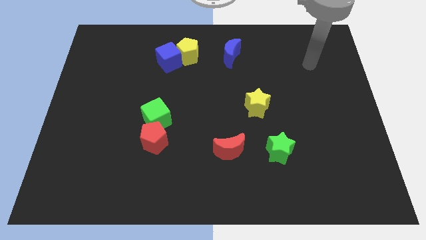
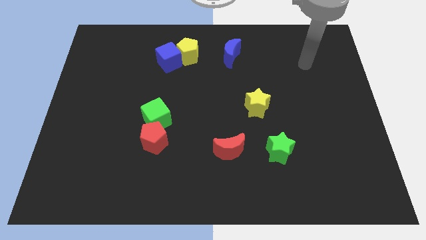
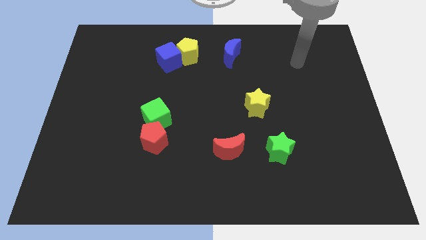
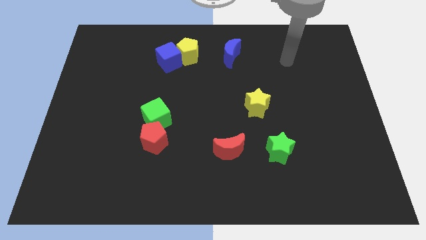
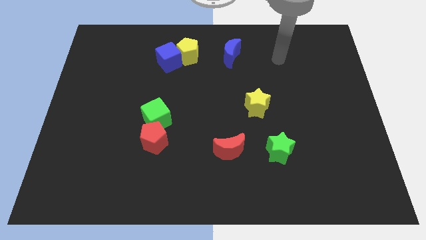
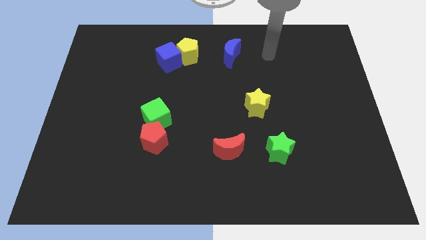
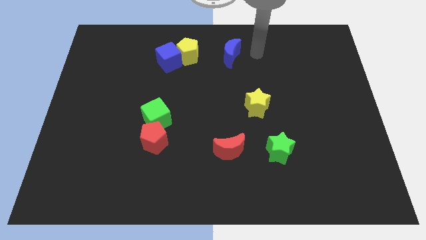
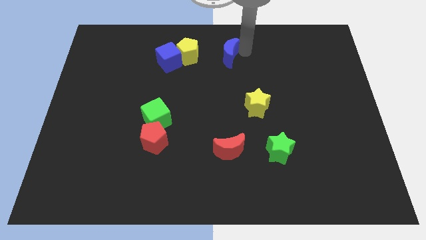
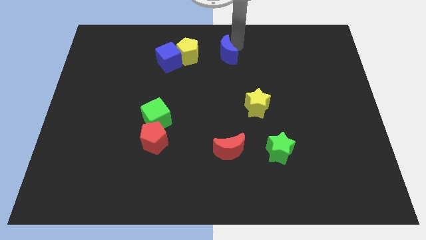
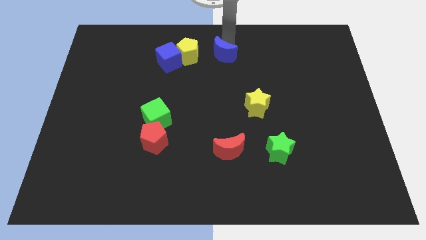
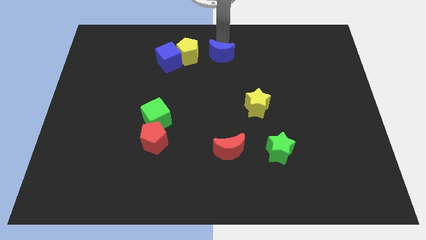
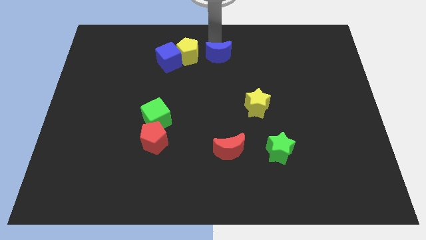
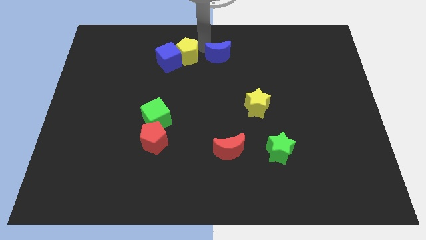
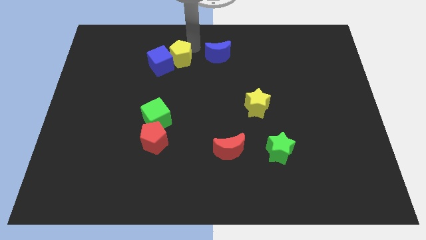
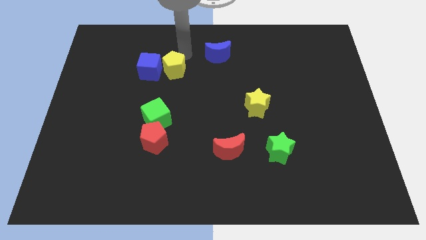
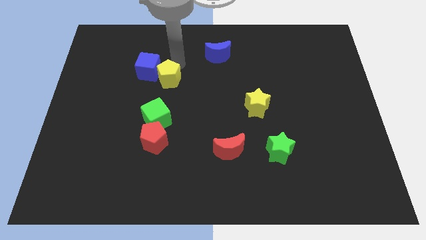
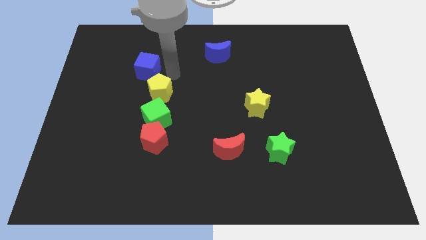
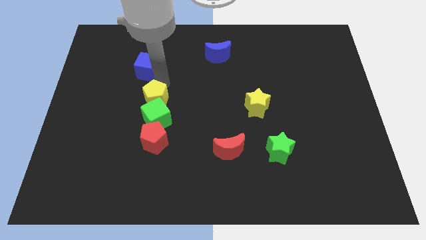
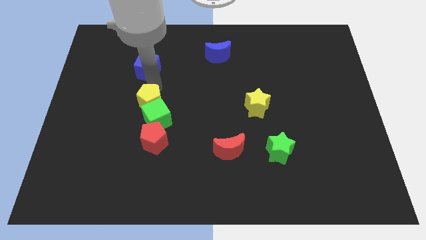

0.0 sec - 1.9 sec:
move the blue cube away from the yellow pentagon

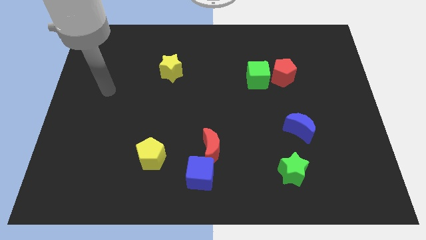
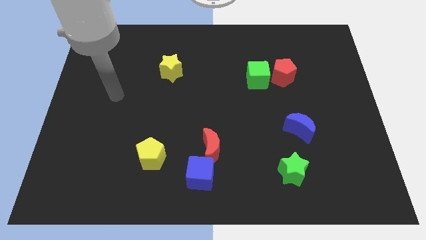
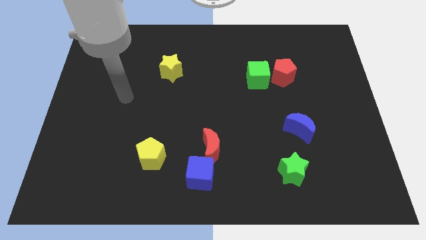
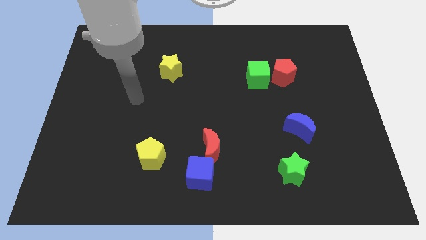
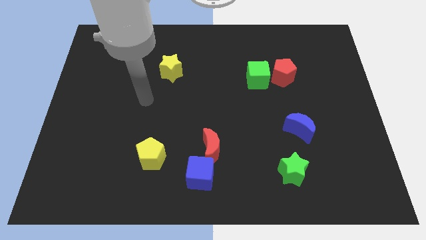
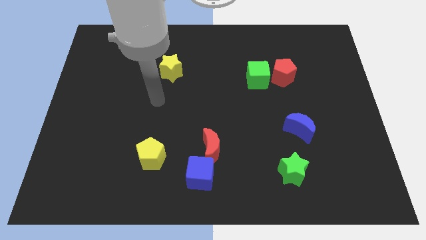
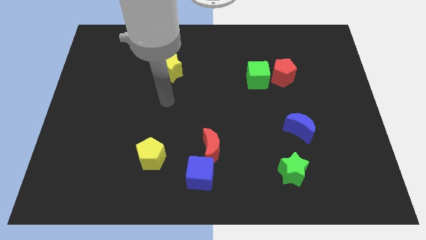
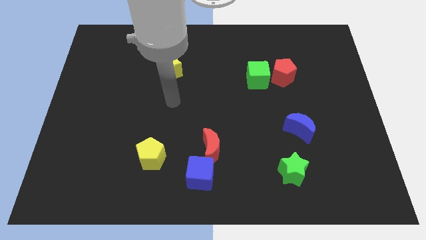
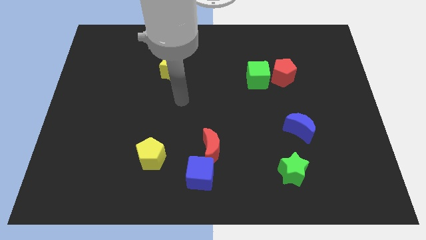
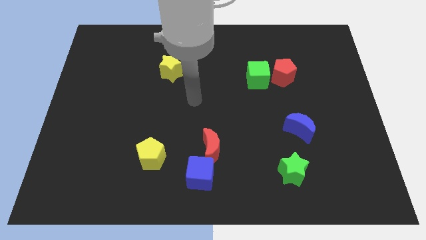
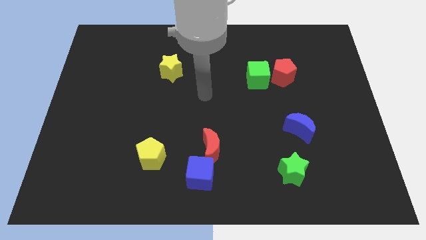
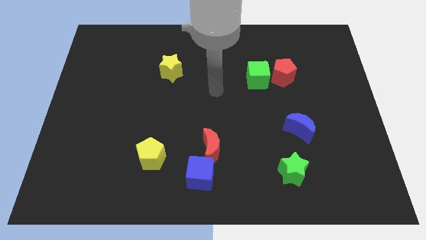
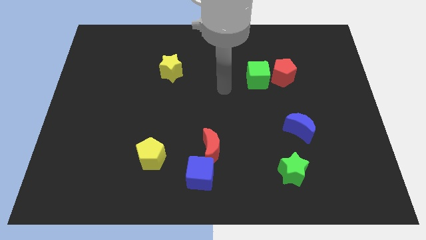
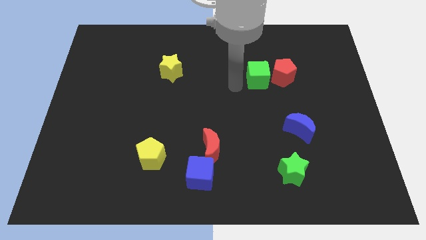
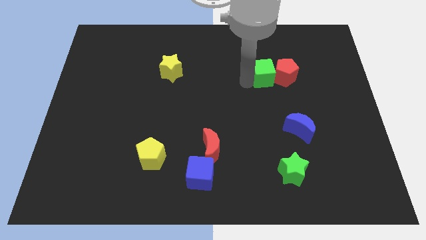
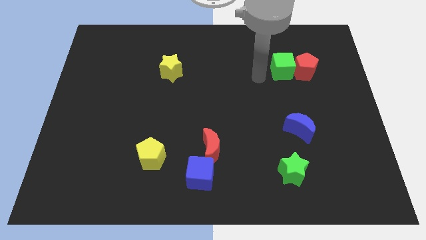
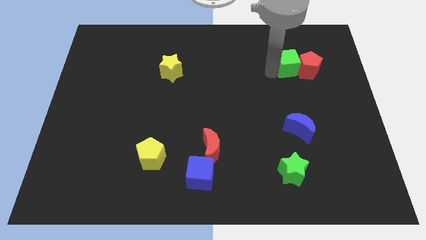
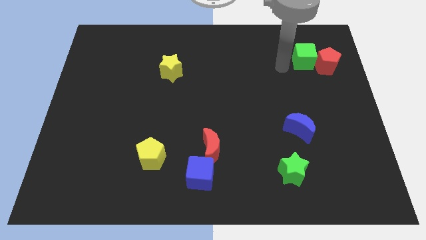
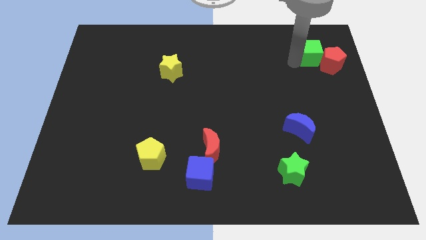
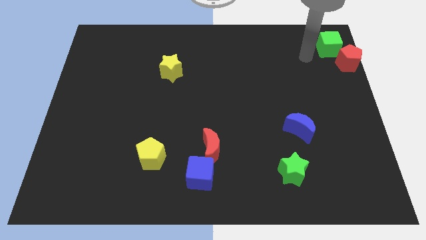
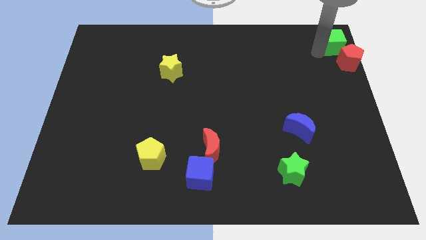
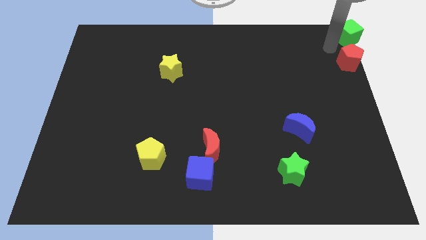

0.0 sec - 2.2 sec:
separate the red pentagon from the green cube

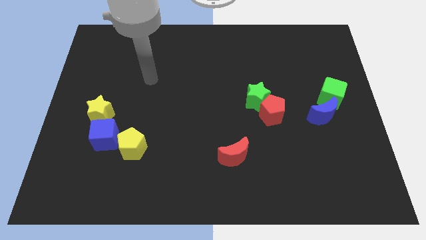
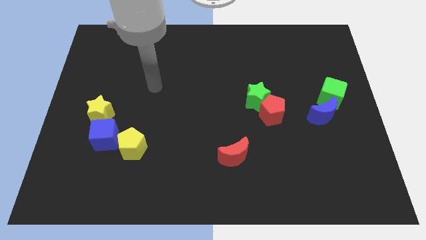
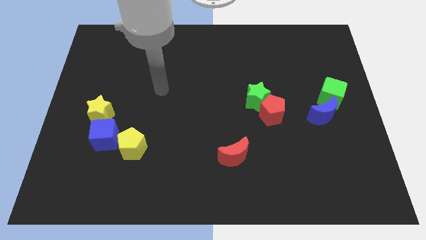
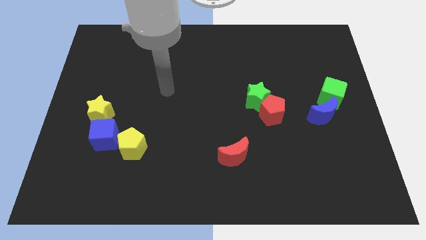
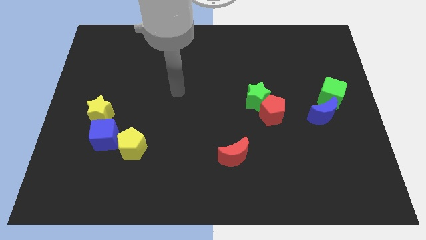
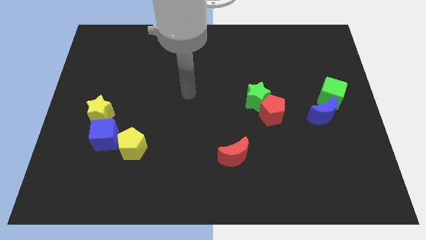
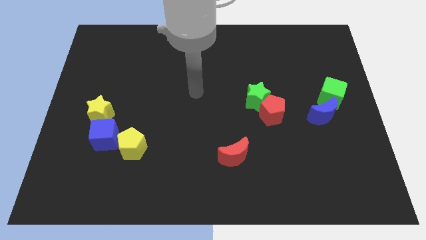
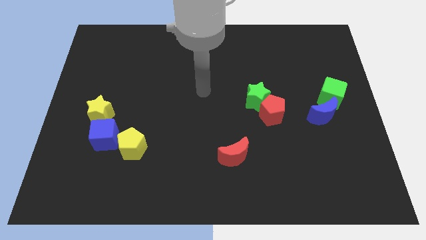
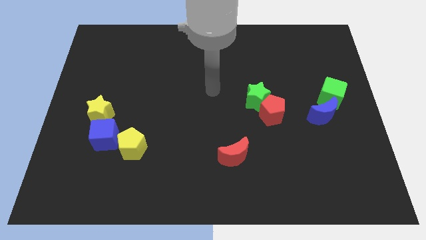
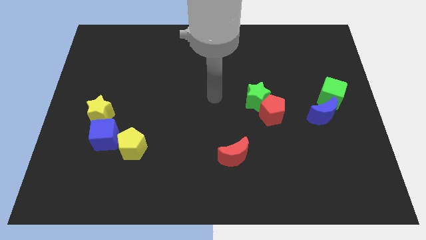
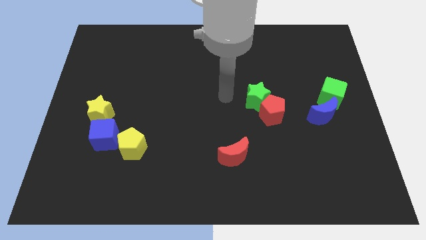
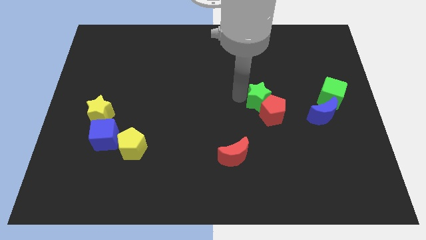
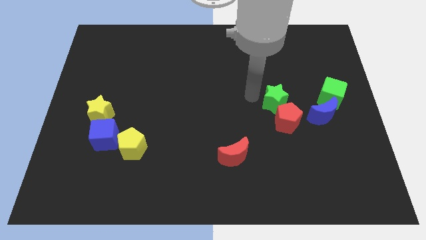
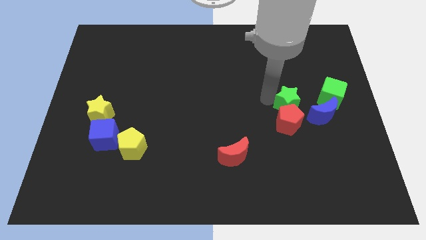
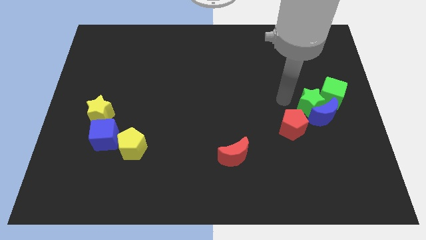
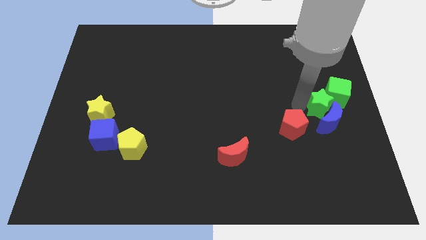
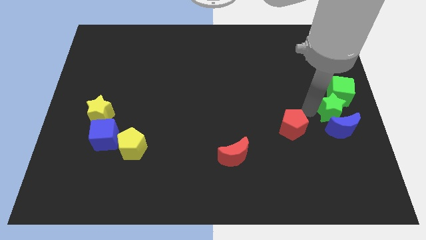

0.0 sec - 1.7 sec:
move the red pentagon away from the green star

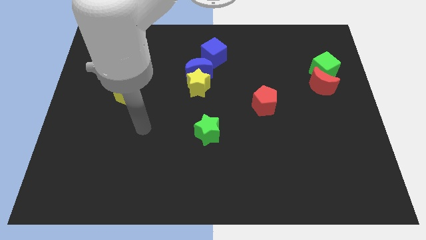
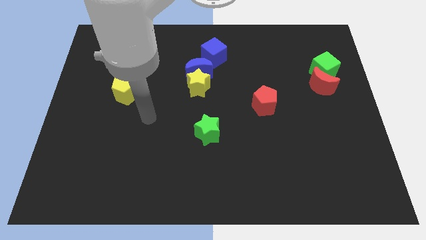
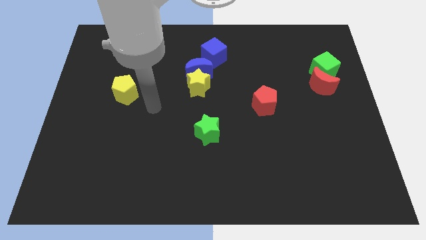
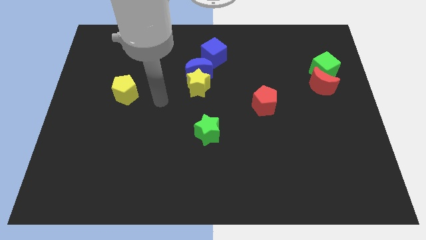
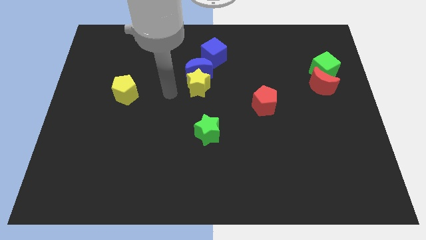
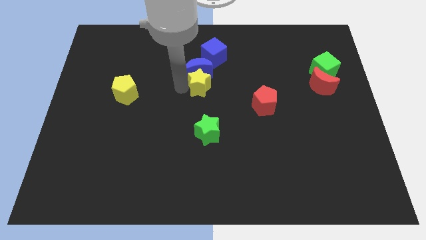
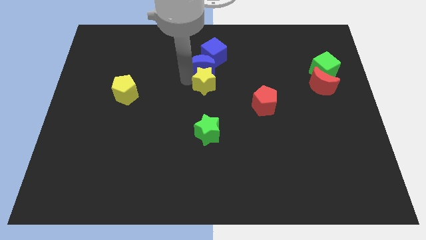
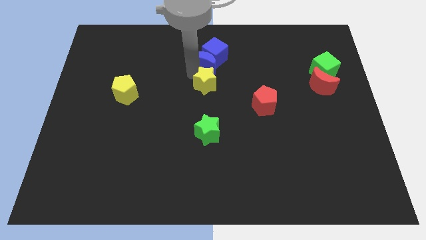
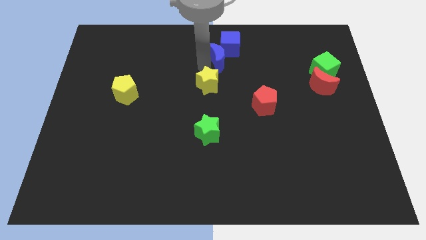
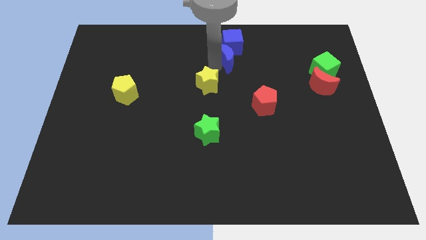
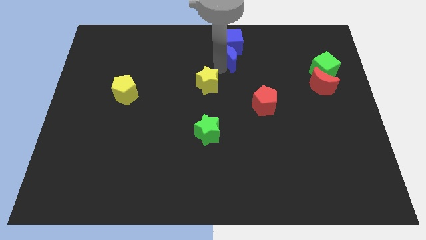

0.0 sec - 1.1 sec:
separate the yellow star from the blue moon

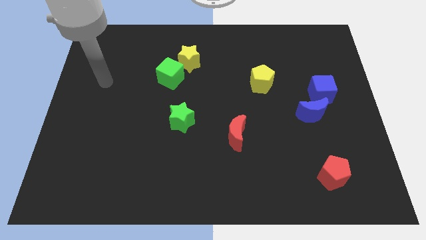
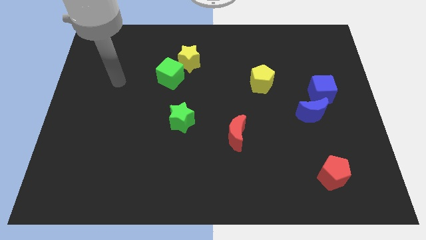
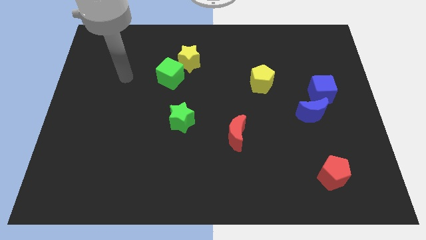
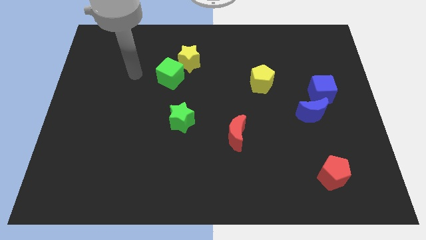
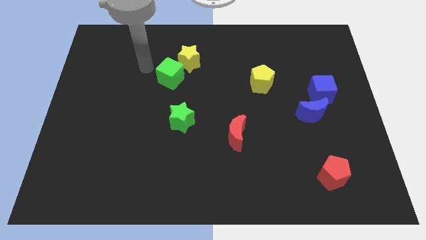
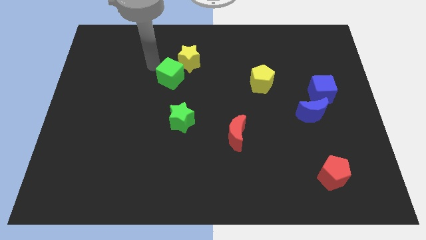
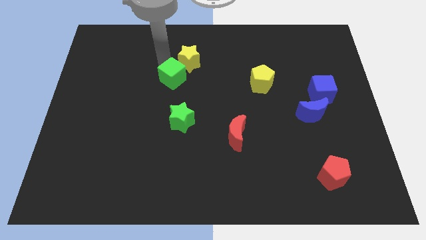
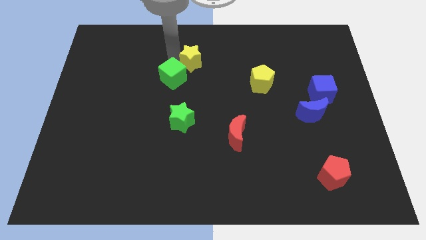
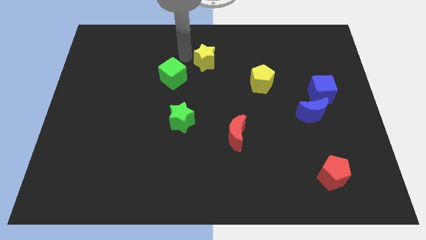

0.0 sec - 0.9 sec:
separate the green cube from the yellow star

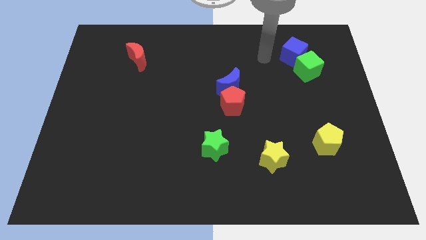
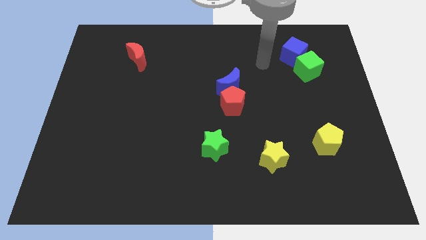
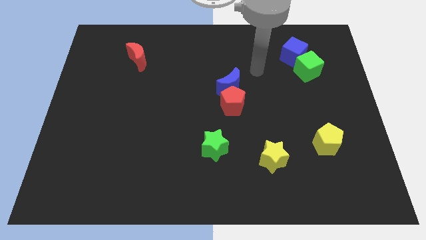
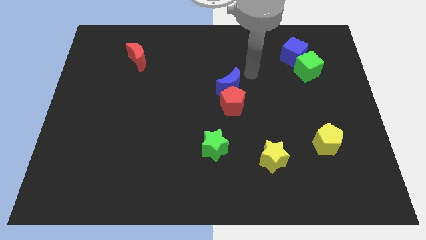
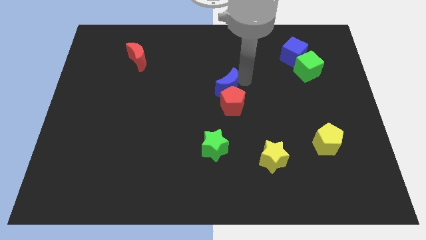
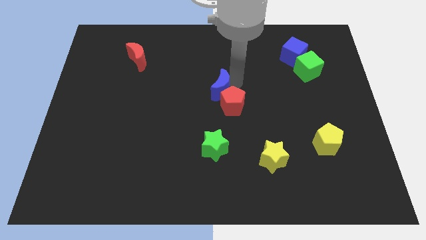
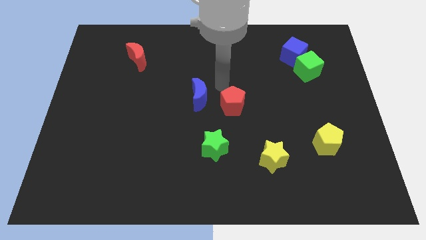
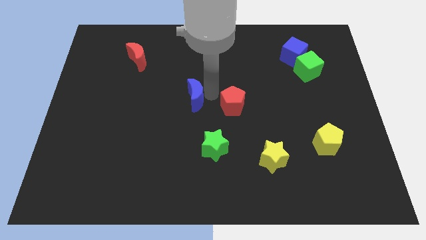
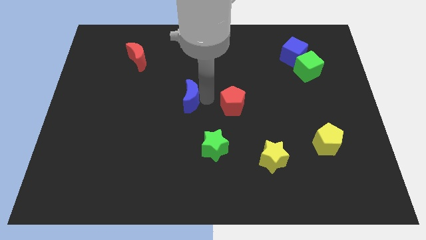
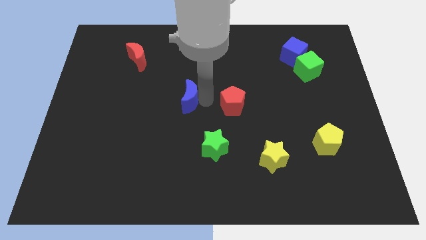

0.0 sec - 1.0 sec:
pull the red pentagon apart from the blue moon

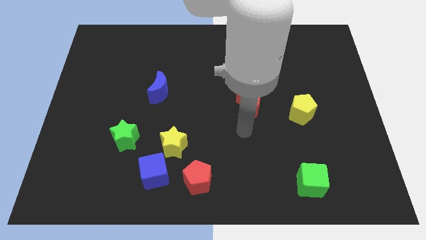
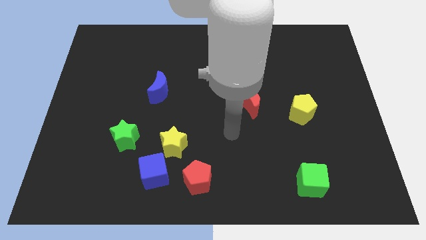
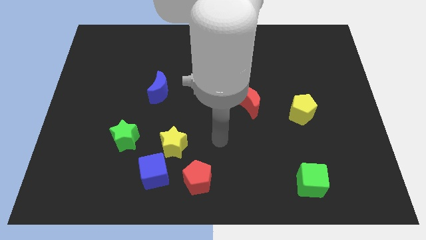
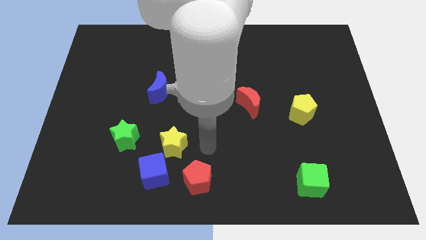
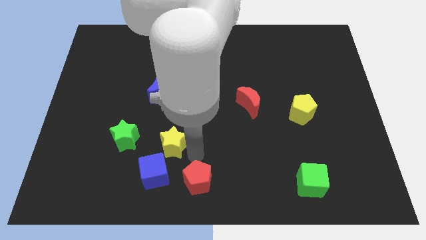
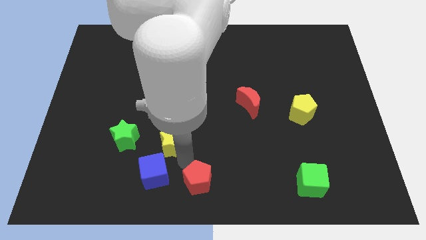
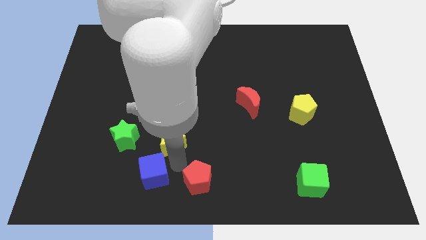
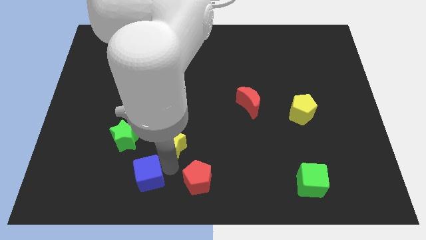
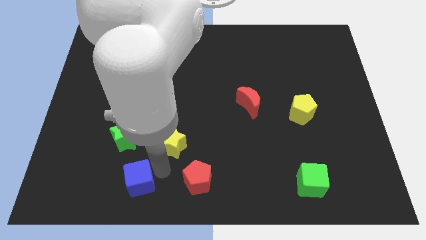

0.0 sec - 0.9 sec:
separate the blue cube from the yellow star and red pentagon
